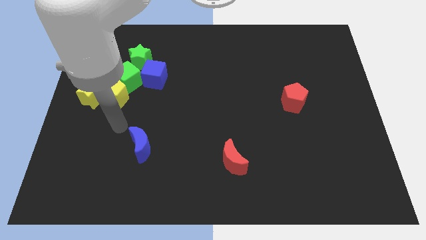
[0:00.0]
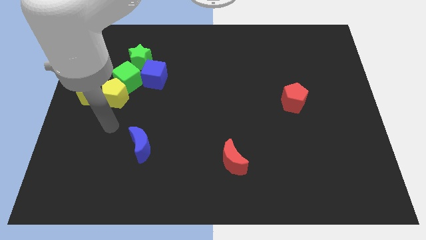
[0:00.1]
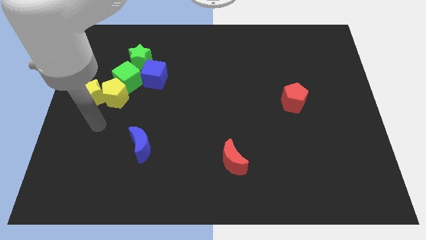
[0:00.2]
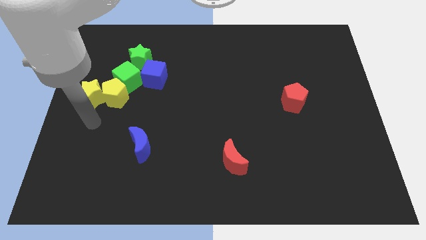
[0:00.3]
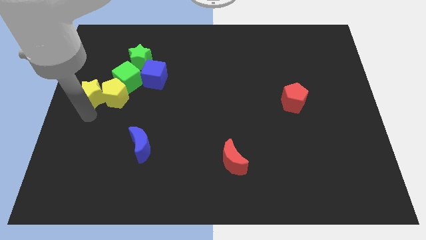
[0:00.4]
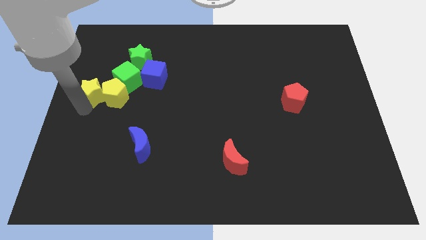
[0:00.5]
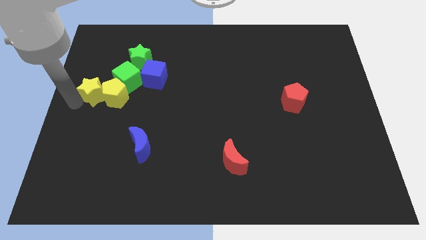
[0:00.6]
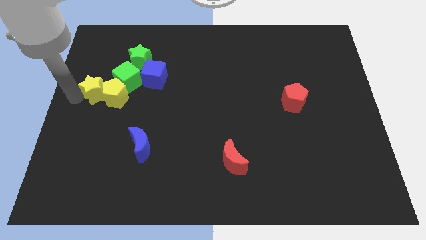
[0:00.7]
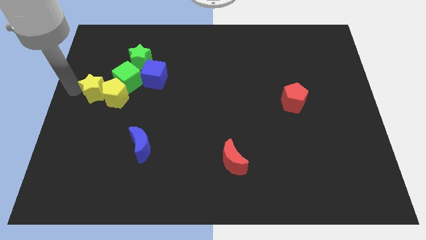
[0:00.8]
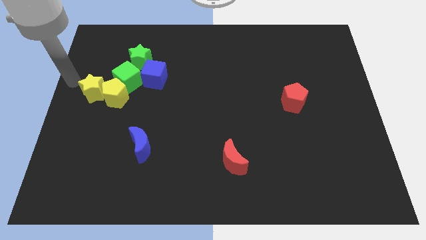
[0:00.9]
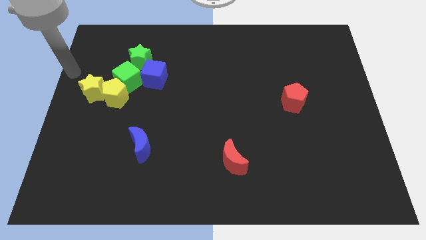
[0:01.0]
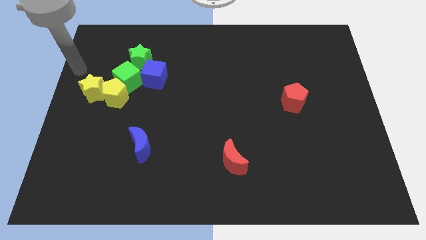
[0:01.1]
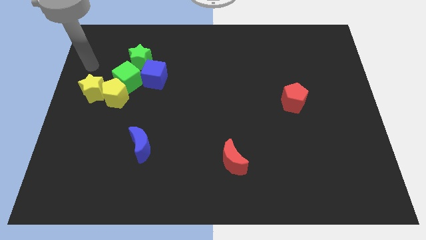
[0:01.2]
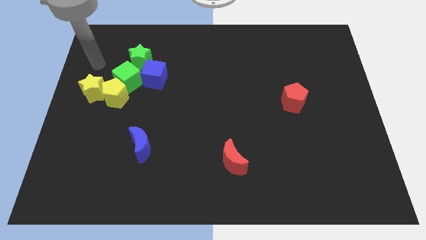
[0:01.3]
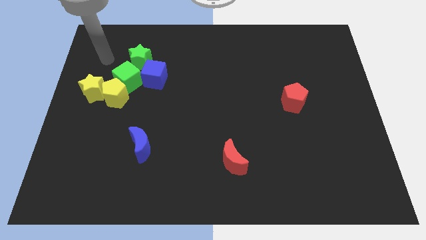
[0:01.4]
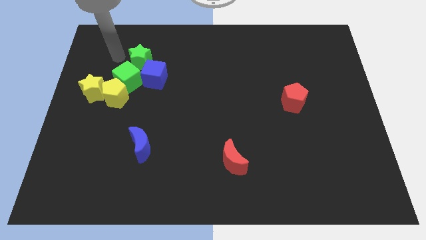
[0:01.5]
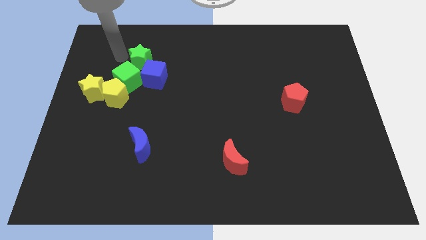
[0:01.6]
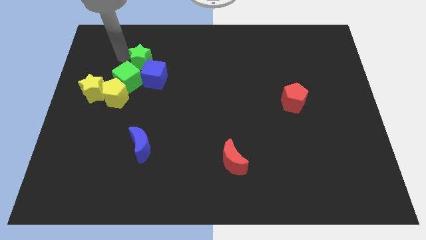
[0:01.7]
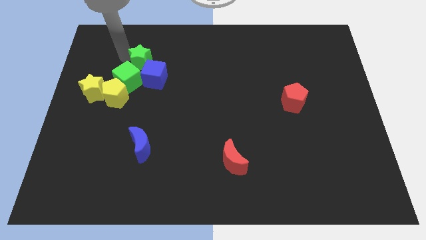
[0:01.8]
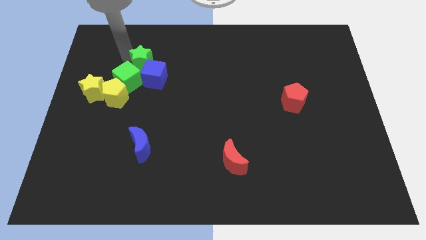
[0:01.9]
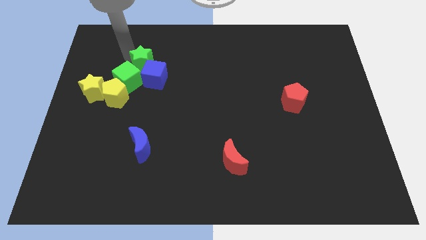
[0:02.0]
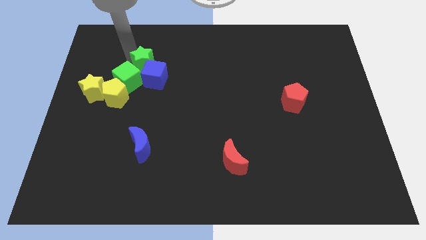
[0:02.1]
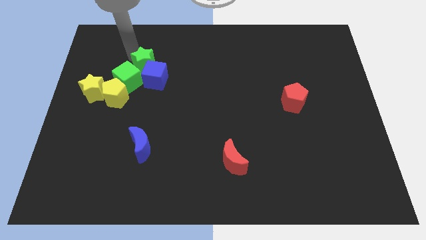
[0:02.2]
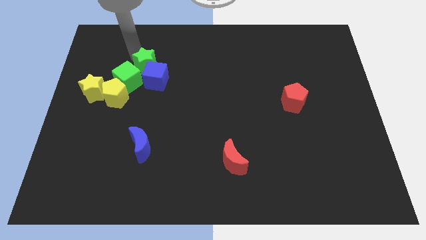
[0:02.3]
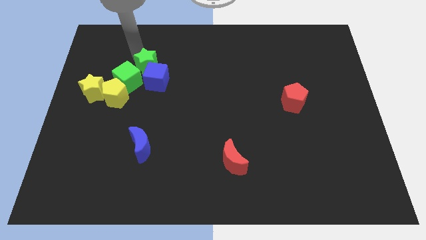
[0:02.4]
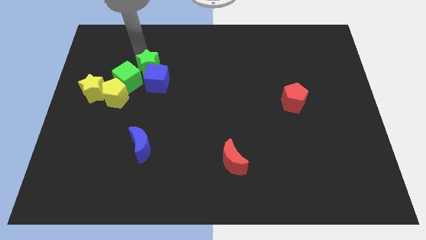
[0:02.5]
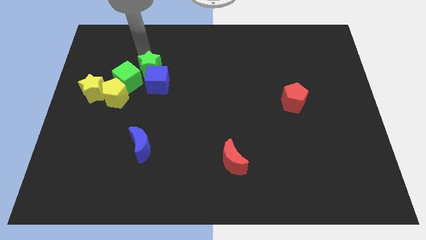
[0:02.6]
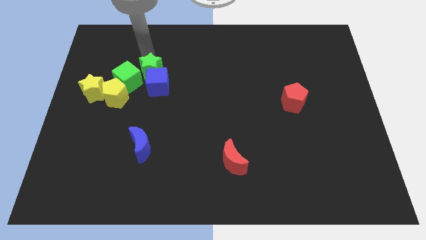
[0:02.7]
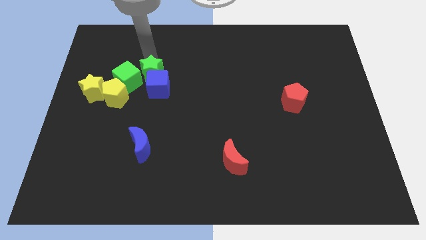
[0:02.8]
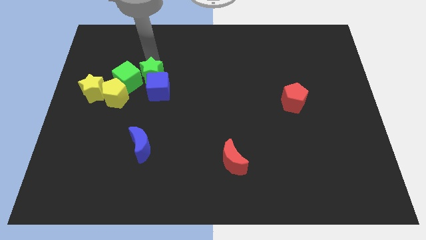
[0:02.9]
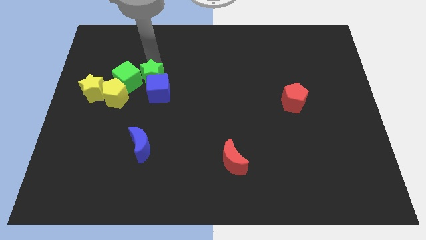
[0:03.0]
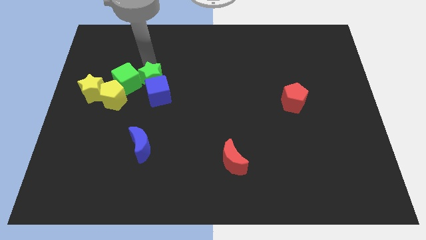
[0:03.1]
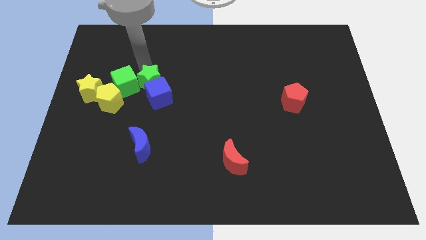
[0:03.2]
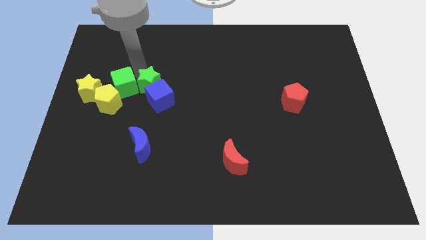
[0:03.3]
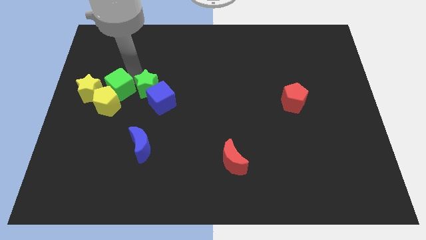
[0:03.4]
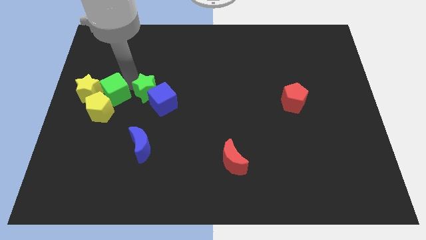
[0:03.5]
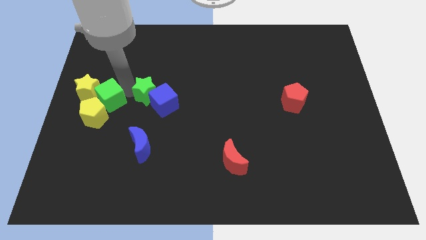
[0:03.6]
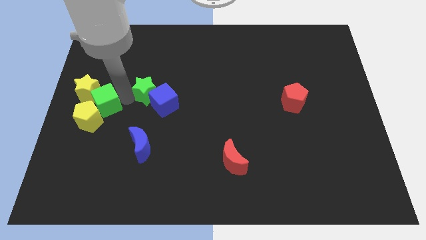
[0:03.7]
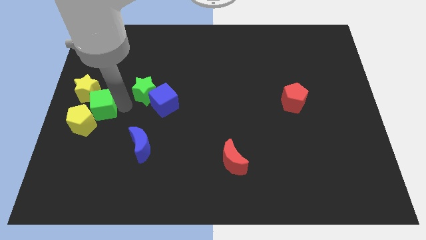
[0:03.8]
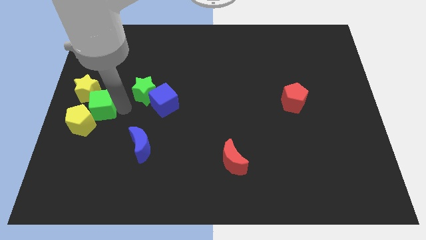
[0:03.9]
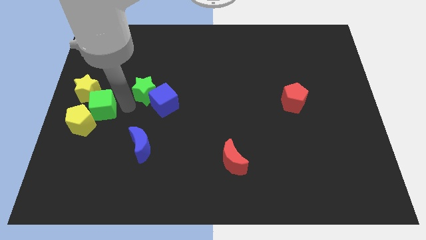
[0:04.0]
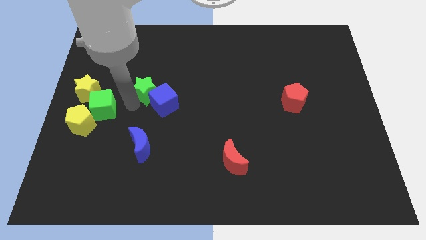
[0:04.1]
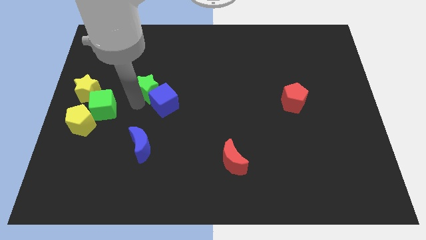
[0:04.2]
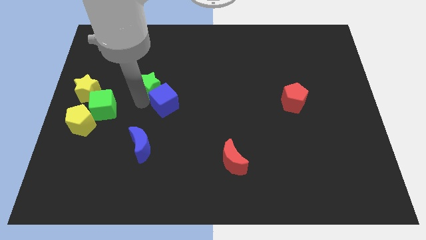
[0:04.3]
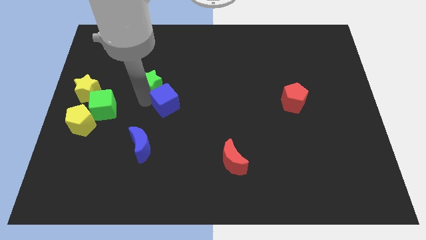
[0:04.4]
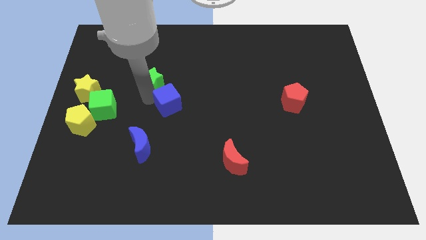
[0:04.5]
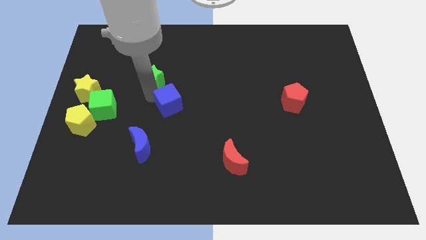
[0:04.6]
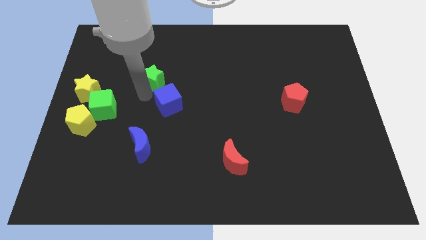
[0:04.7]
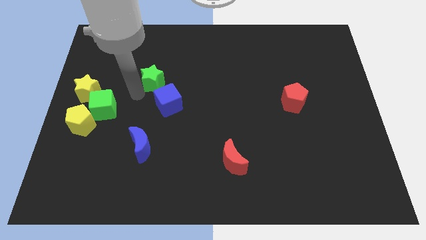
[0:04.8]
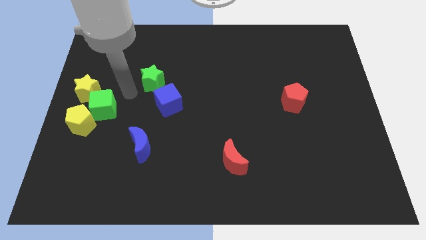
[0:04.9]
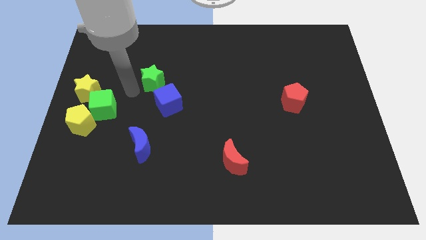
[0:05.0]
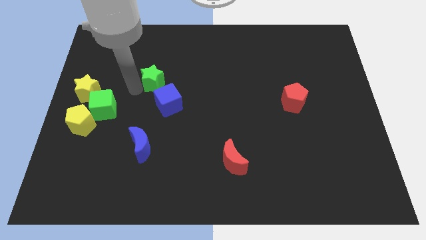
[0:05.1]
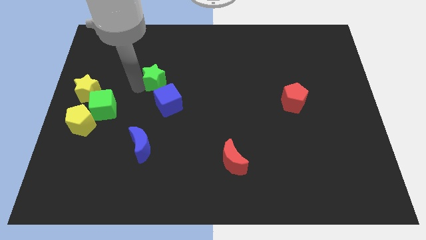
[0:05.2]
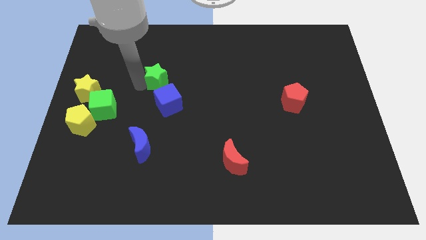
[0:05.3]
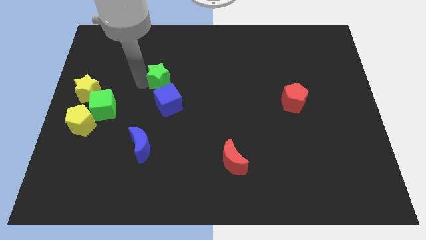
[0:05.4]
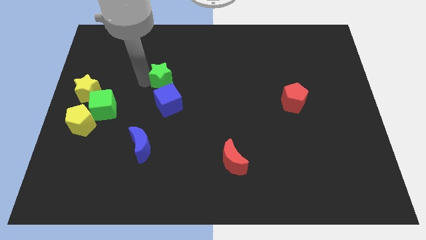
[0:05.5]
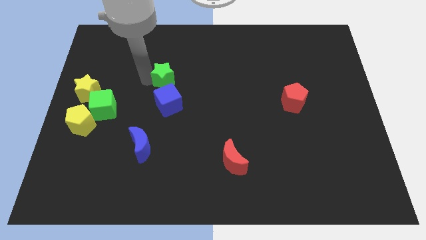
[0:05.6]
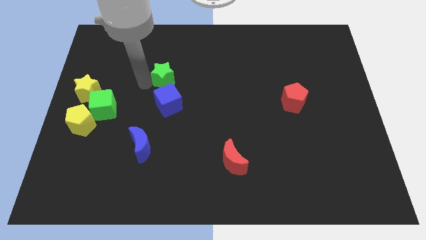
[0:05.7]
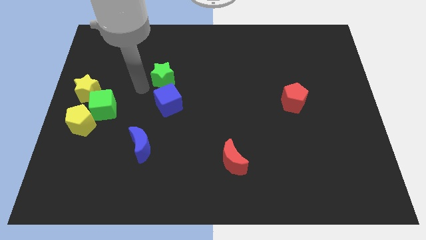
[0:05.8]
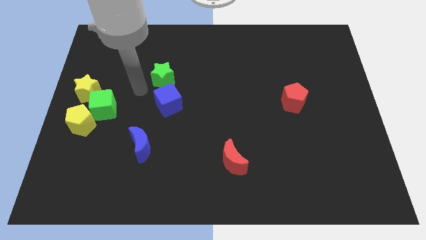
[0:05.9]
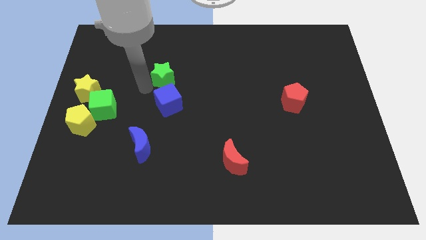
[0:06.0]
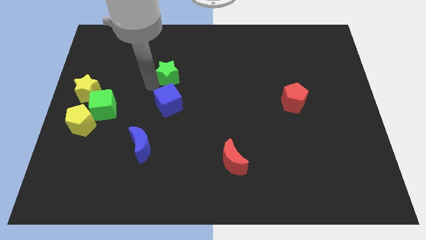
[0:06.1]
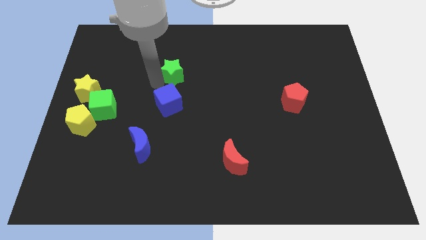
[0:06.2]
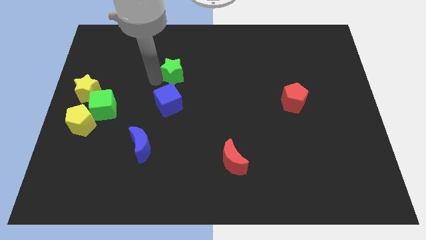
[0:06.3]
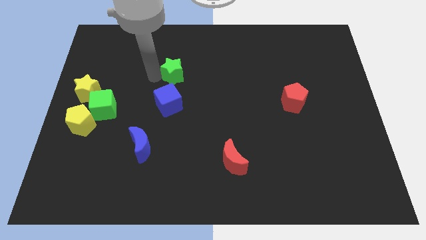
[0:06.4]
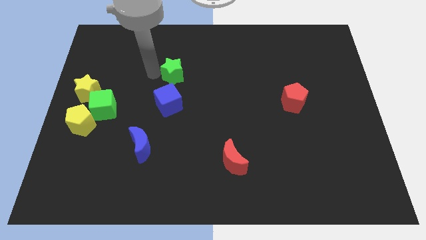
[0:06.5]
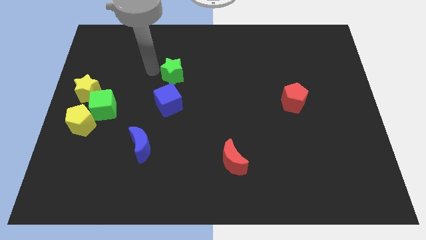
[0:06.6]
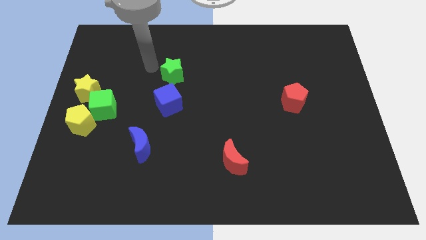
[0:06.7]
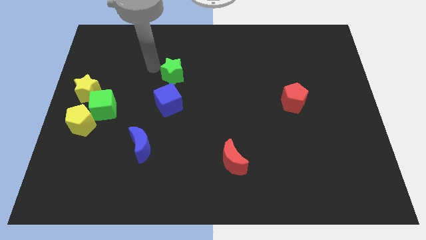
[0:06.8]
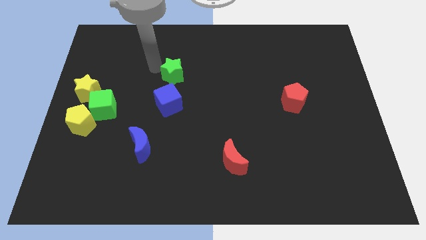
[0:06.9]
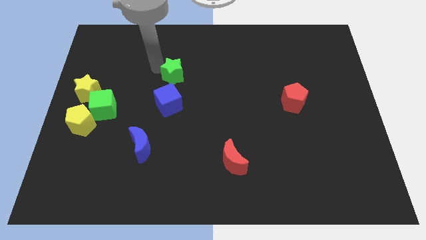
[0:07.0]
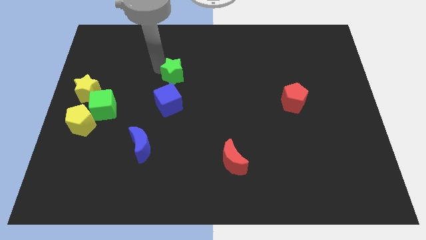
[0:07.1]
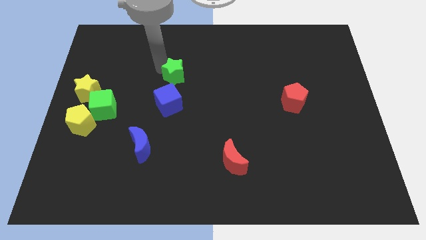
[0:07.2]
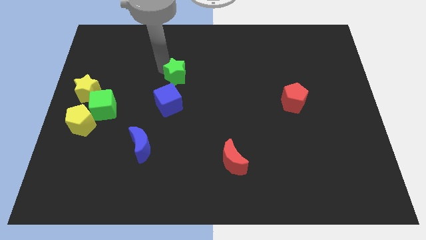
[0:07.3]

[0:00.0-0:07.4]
move the green star to the center
